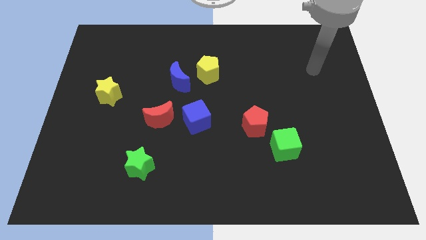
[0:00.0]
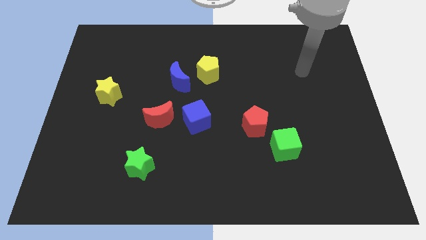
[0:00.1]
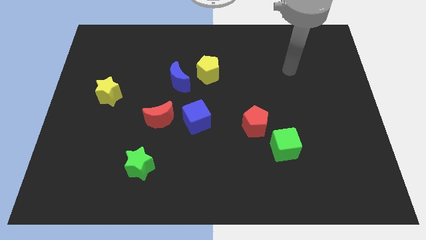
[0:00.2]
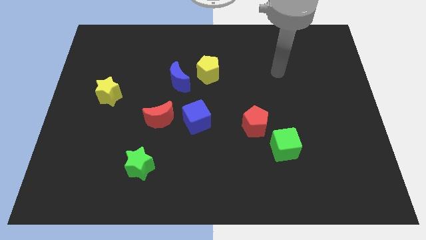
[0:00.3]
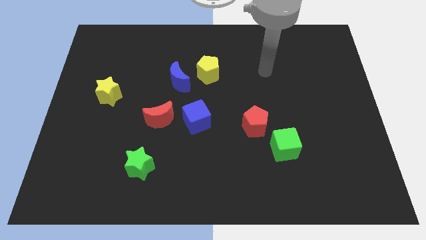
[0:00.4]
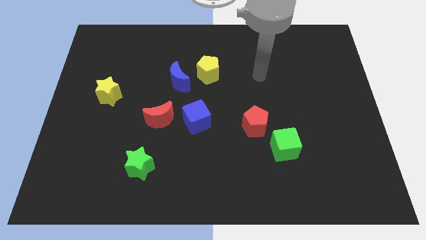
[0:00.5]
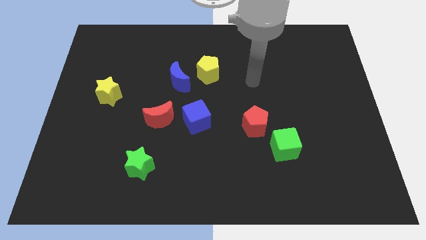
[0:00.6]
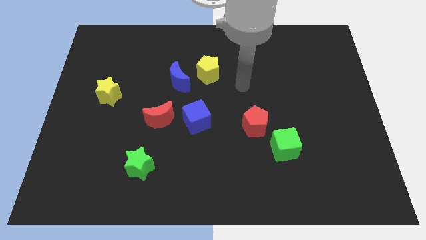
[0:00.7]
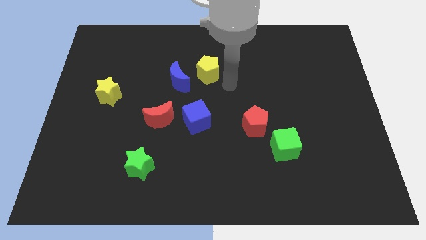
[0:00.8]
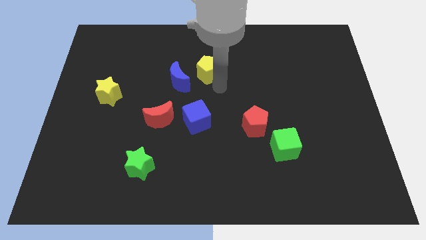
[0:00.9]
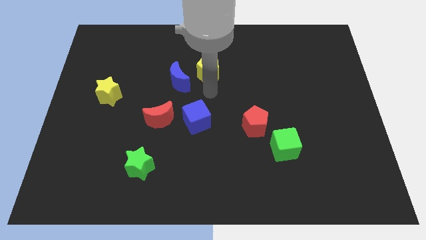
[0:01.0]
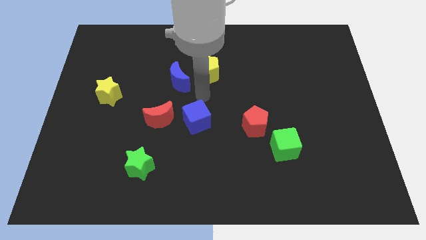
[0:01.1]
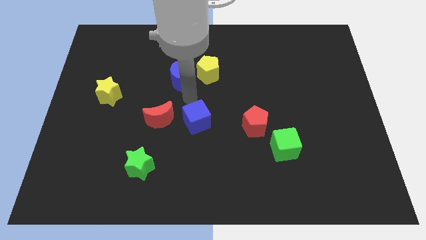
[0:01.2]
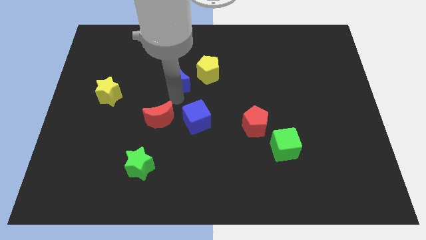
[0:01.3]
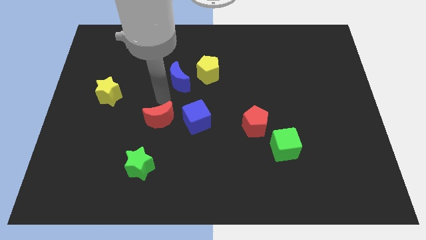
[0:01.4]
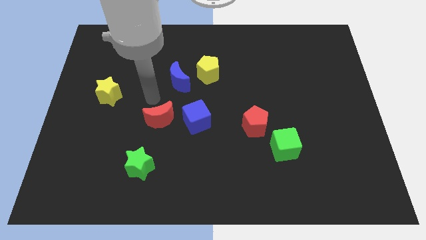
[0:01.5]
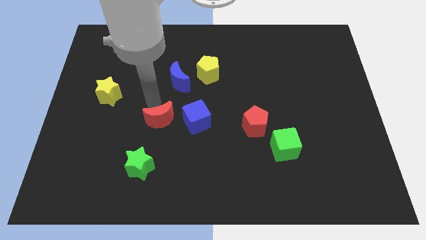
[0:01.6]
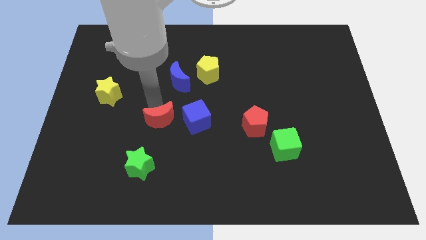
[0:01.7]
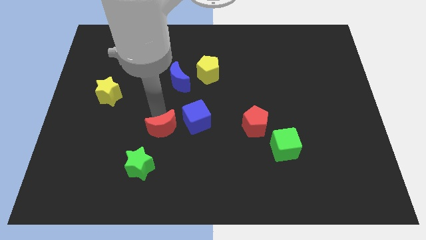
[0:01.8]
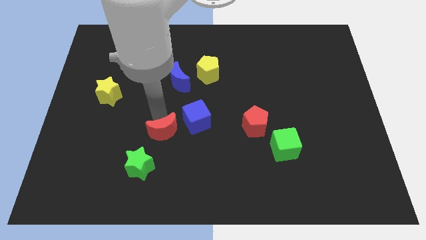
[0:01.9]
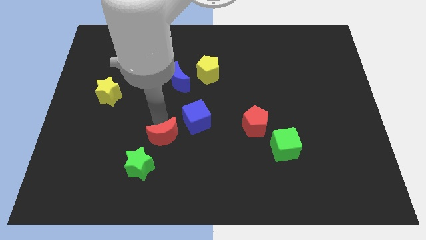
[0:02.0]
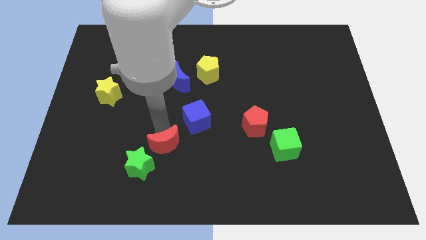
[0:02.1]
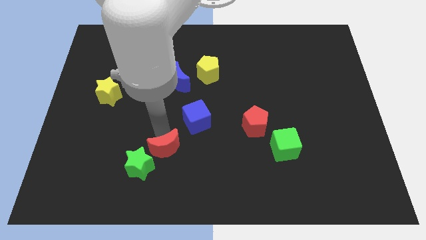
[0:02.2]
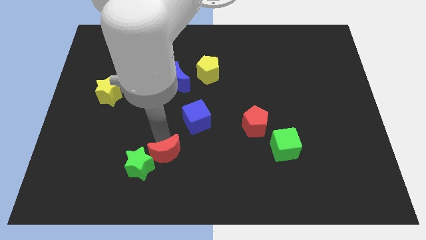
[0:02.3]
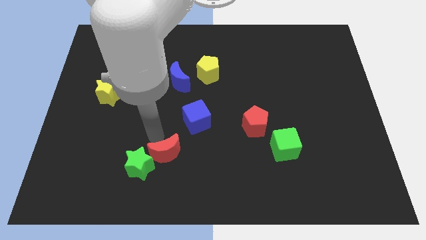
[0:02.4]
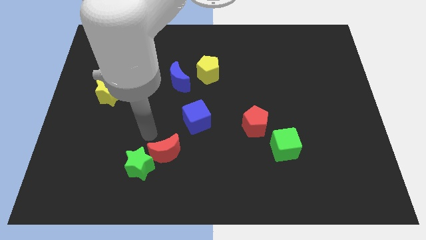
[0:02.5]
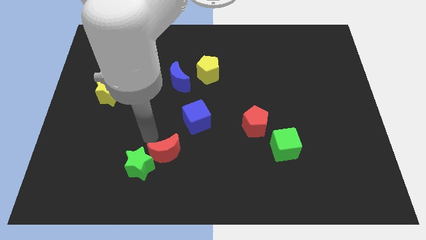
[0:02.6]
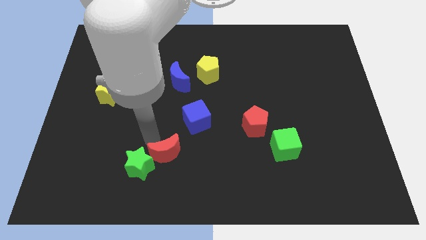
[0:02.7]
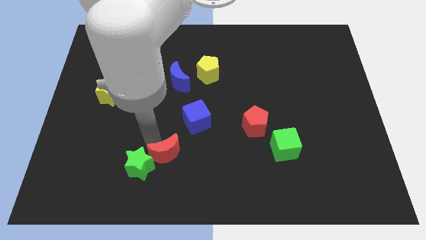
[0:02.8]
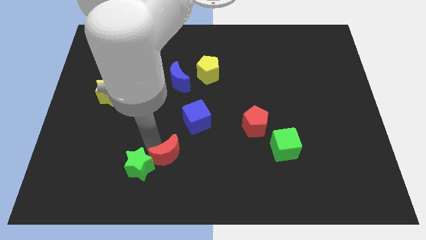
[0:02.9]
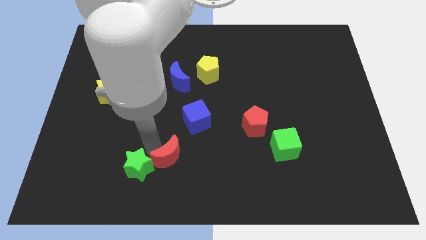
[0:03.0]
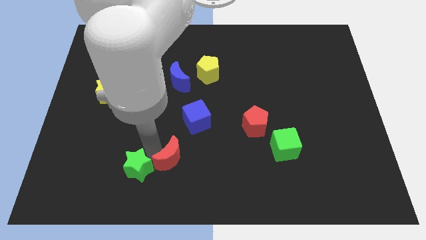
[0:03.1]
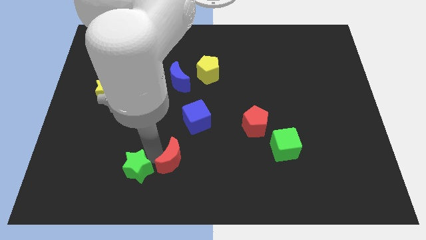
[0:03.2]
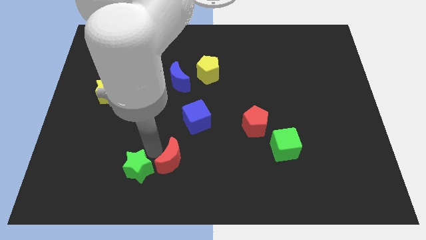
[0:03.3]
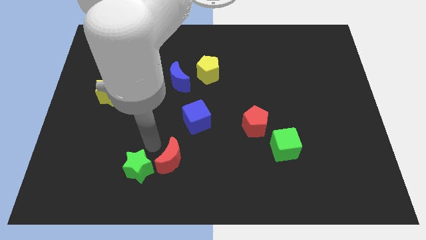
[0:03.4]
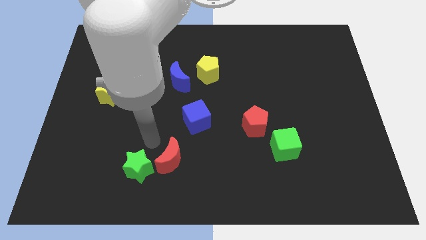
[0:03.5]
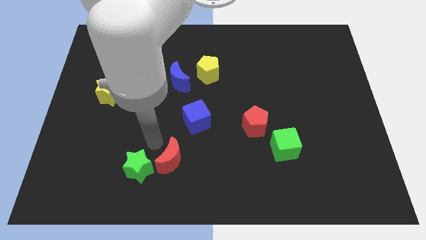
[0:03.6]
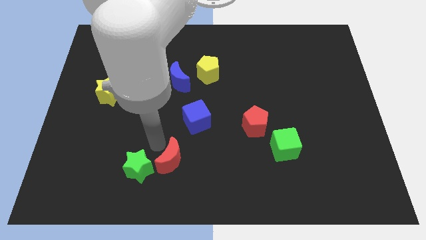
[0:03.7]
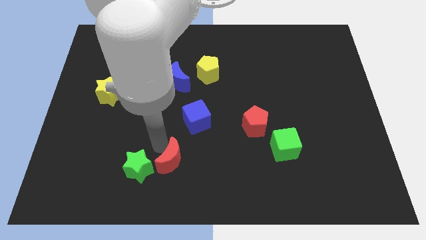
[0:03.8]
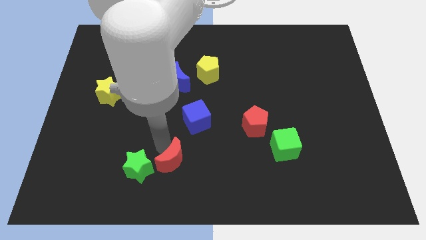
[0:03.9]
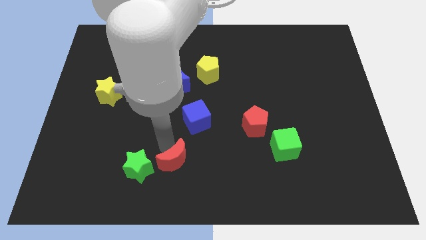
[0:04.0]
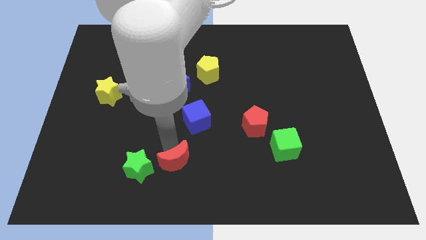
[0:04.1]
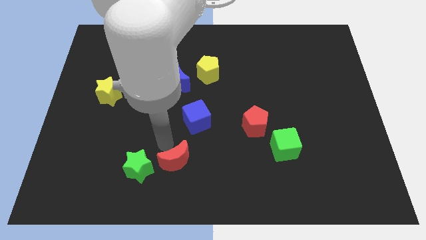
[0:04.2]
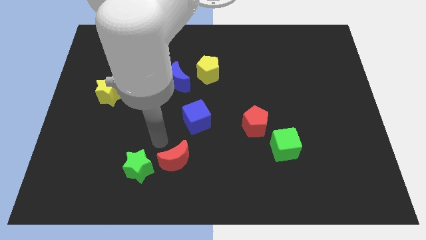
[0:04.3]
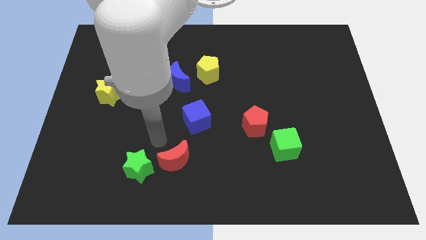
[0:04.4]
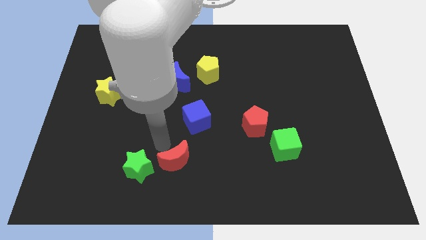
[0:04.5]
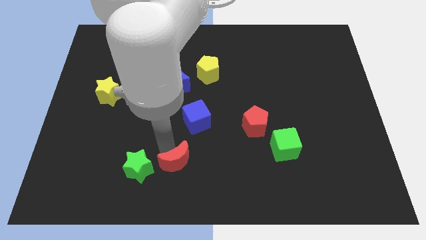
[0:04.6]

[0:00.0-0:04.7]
push the red moon to the bottom

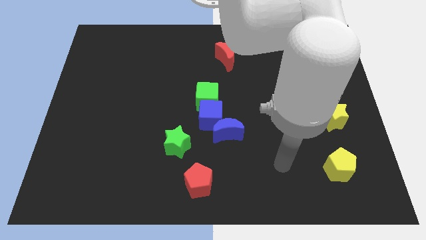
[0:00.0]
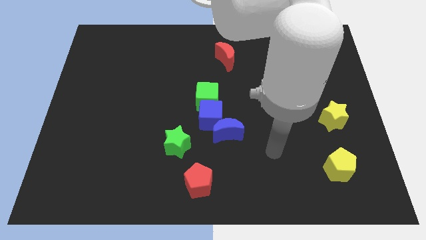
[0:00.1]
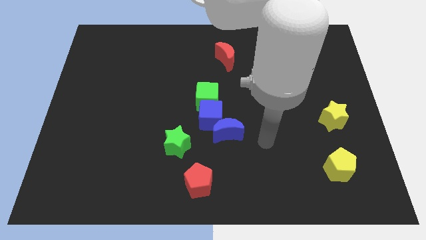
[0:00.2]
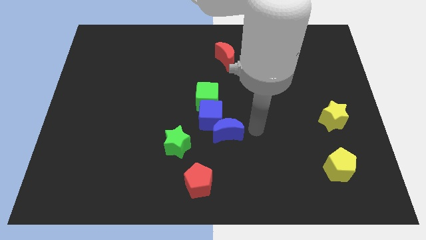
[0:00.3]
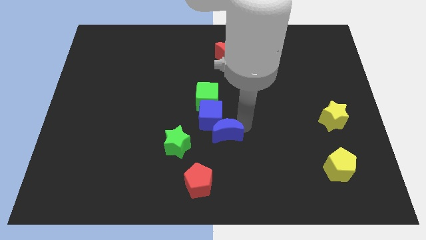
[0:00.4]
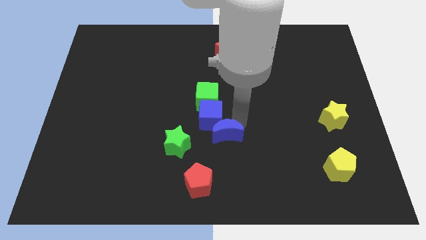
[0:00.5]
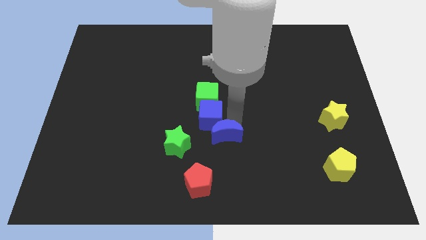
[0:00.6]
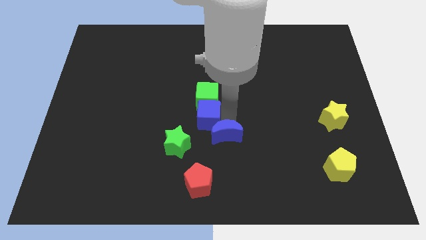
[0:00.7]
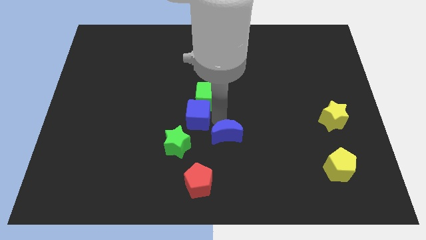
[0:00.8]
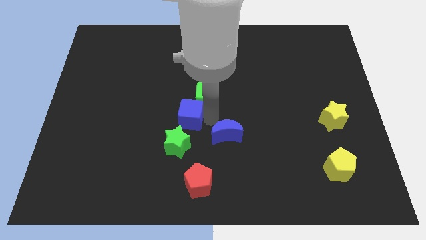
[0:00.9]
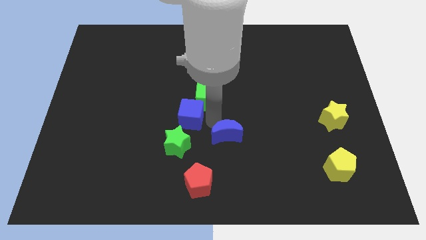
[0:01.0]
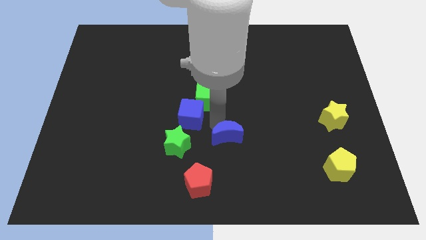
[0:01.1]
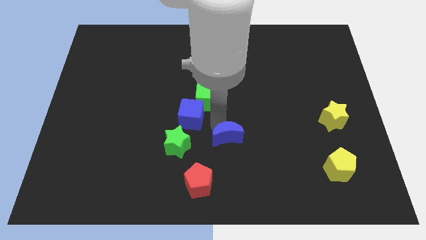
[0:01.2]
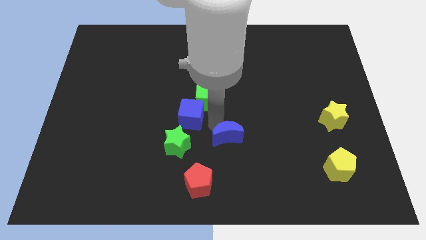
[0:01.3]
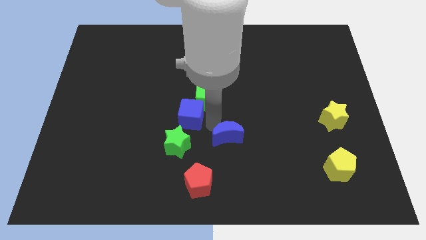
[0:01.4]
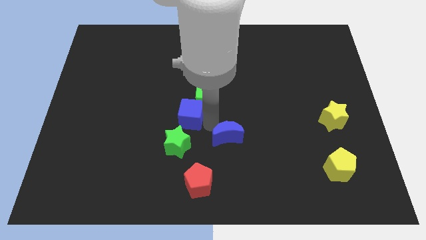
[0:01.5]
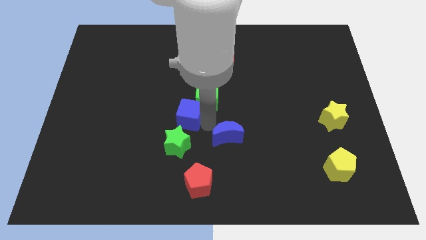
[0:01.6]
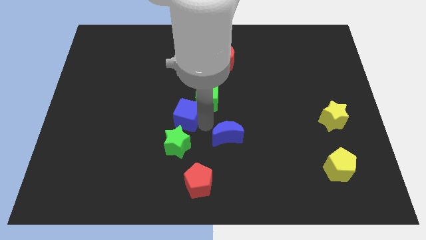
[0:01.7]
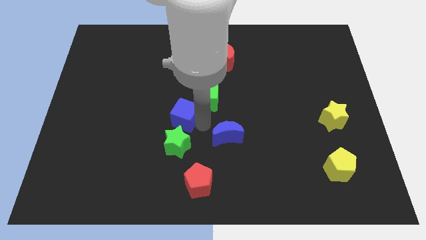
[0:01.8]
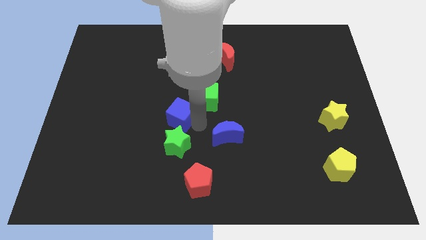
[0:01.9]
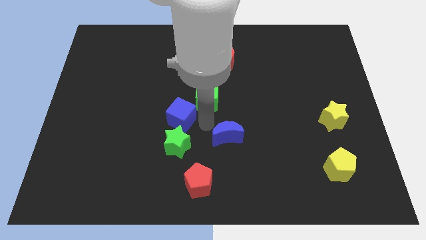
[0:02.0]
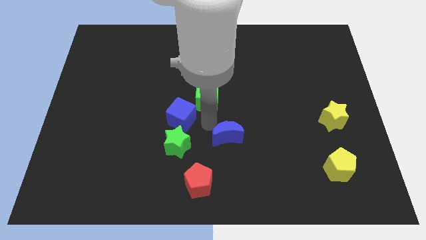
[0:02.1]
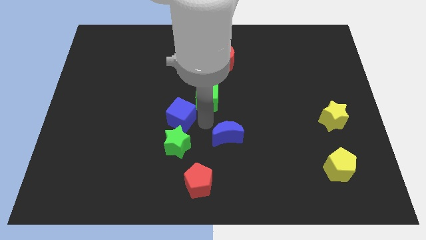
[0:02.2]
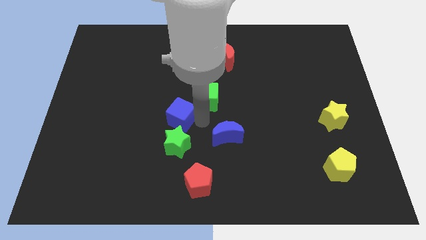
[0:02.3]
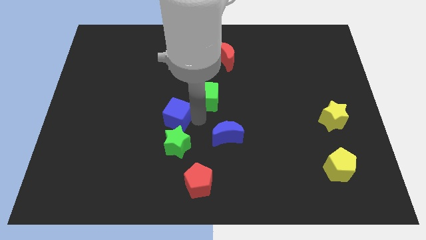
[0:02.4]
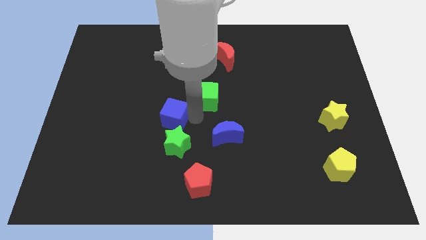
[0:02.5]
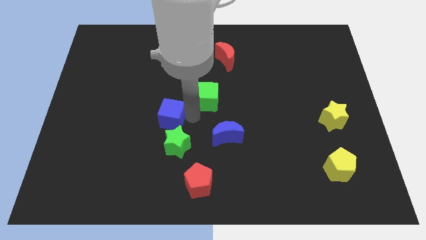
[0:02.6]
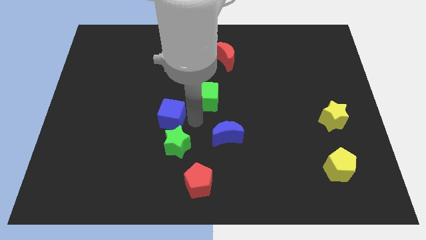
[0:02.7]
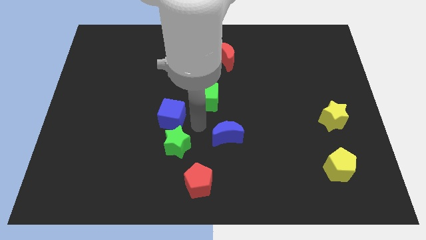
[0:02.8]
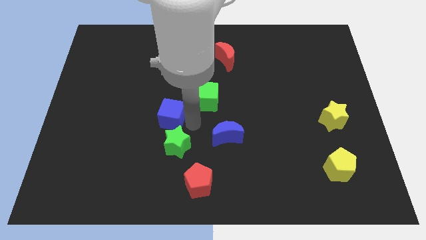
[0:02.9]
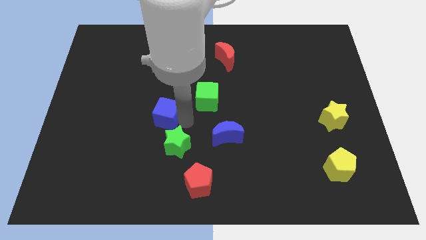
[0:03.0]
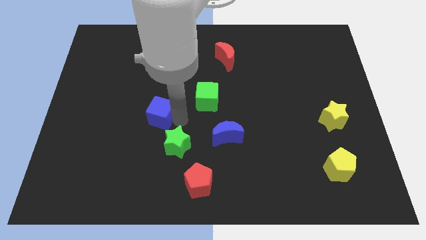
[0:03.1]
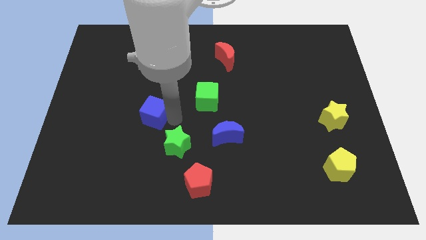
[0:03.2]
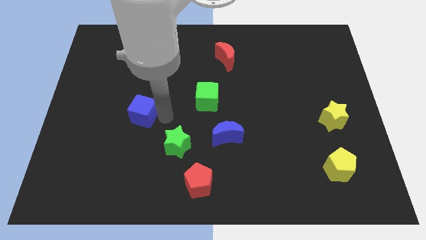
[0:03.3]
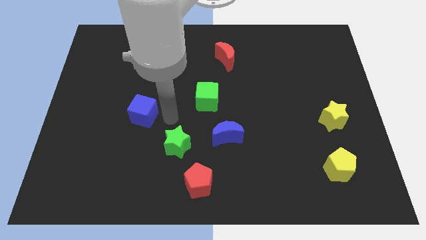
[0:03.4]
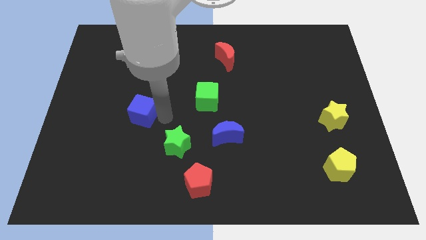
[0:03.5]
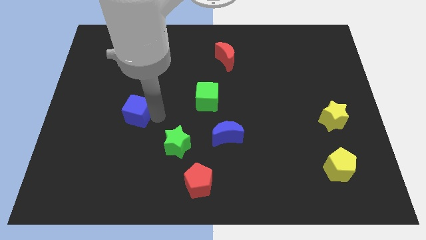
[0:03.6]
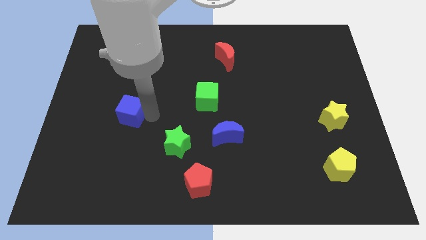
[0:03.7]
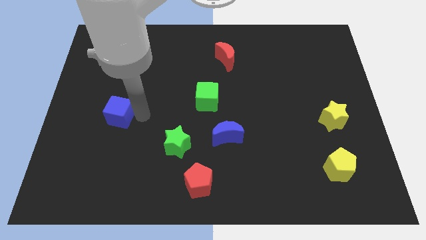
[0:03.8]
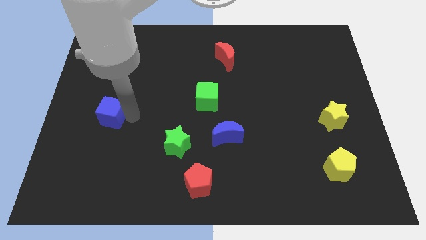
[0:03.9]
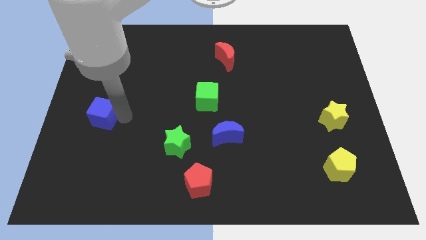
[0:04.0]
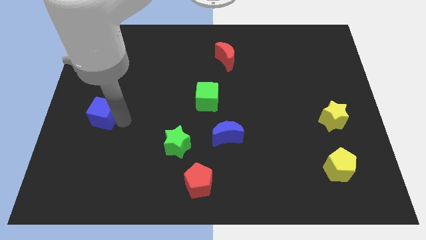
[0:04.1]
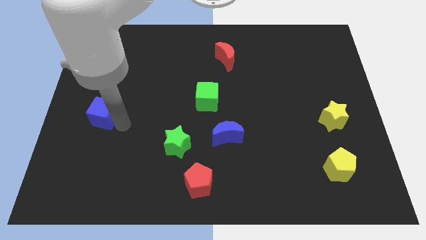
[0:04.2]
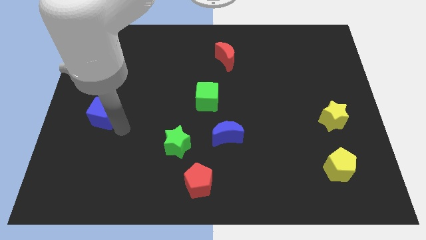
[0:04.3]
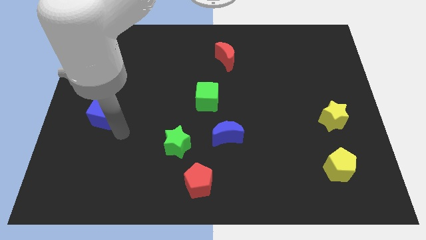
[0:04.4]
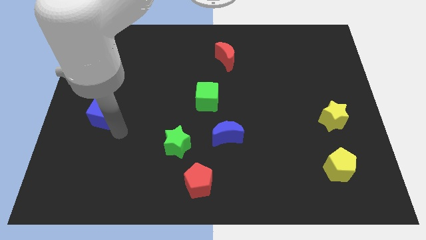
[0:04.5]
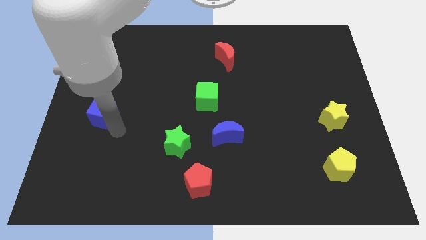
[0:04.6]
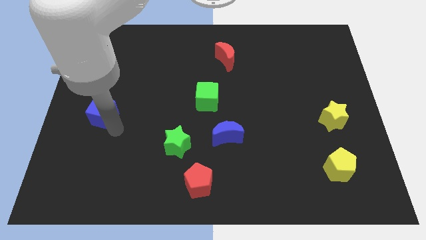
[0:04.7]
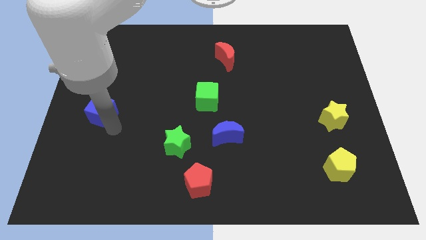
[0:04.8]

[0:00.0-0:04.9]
put the blue cube to the left side
